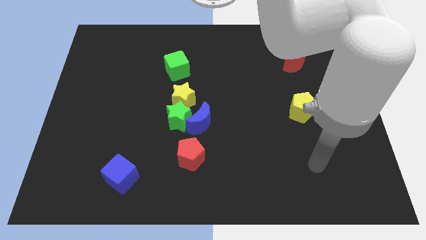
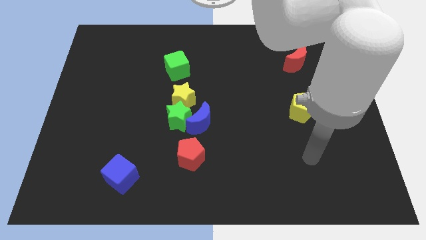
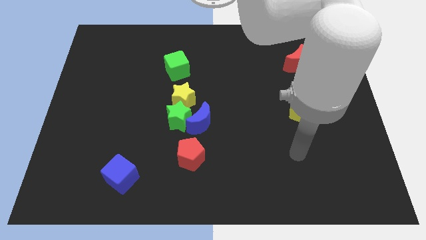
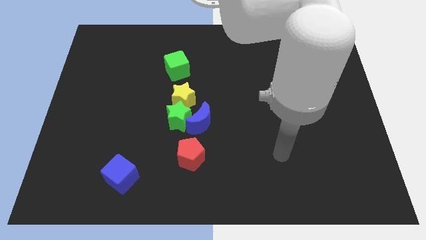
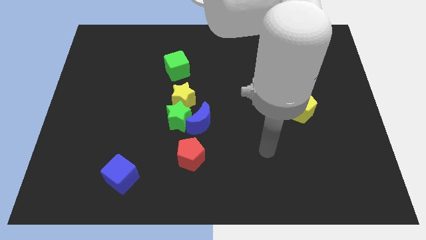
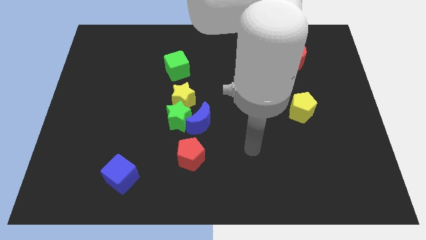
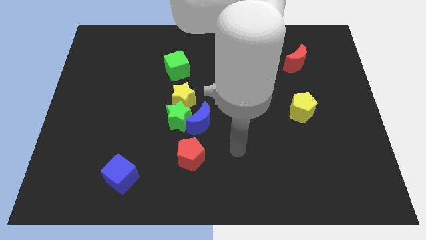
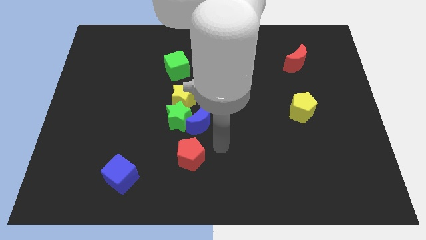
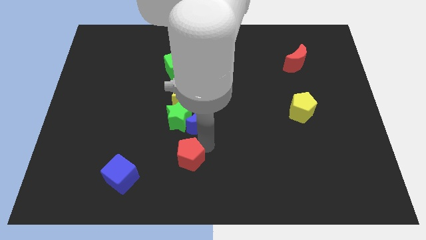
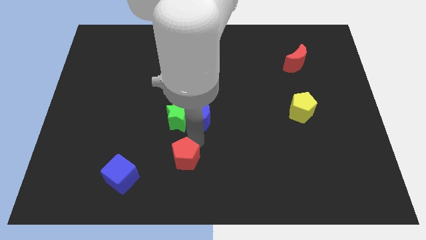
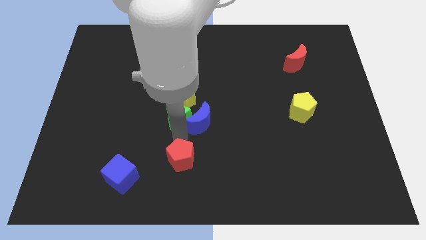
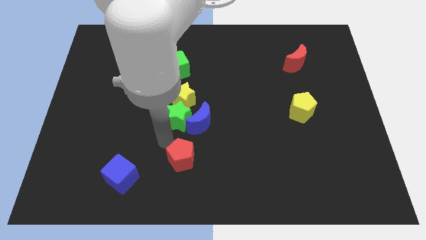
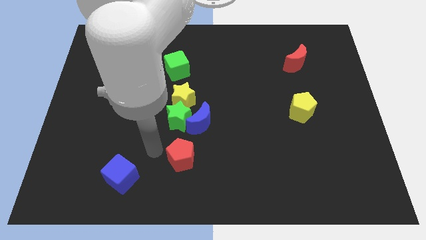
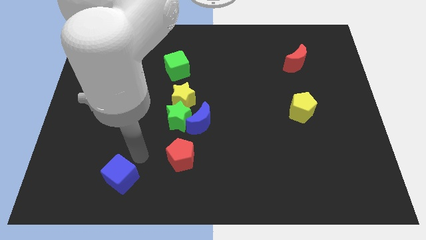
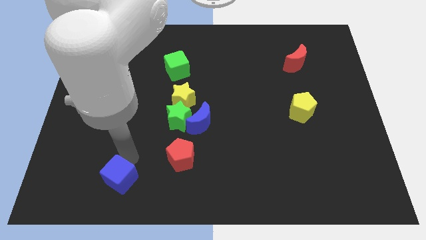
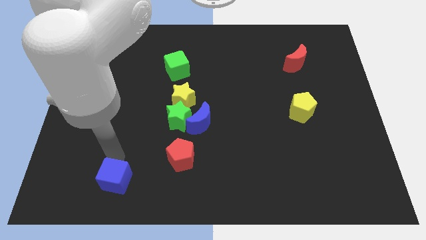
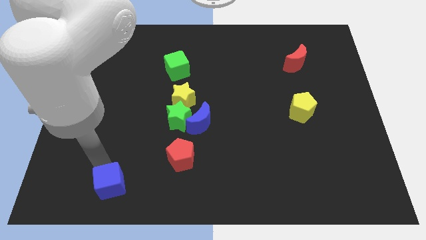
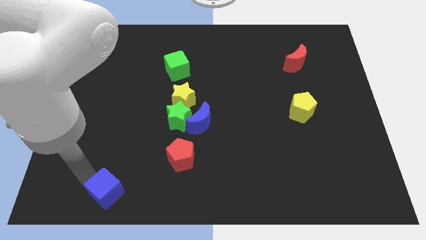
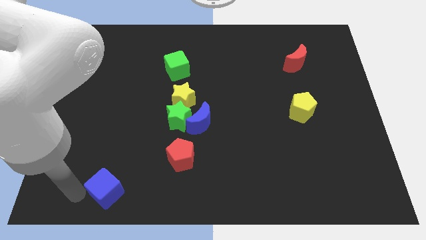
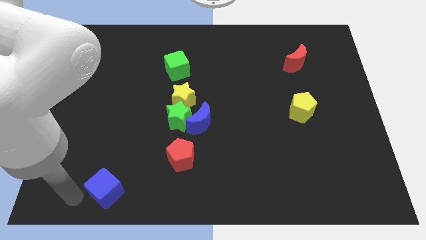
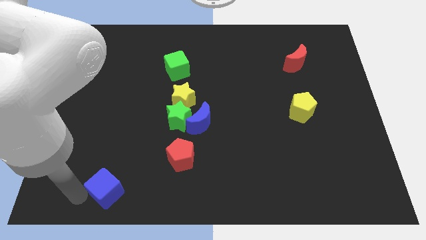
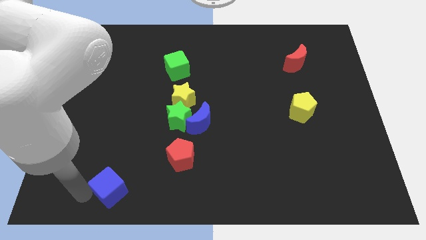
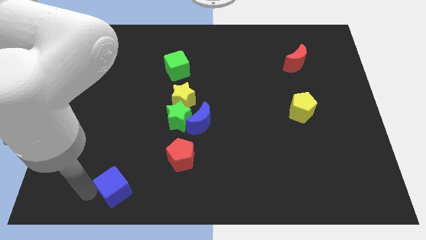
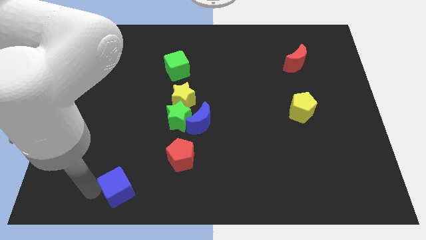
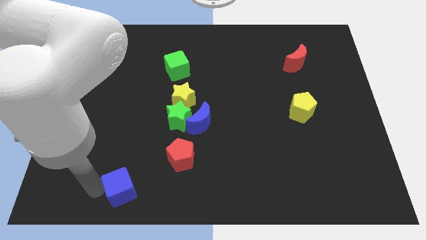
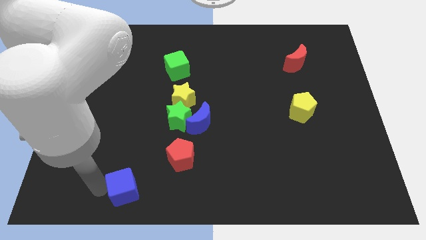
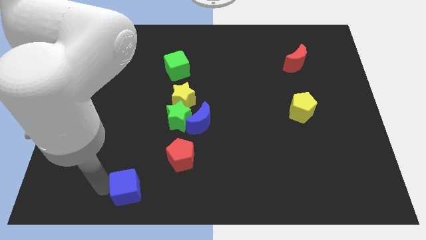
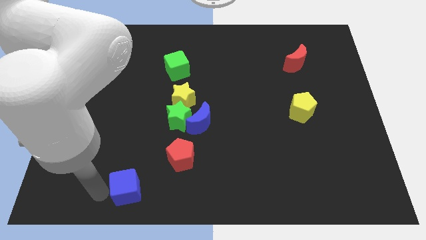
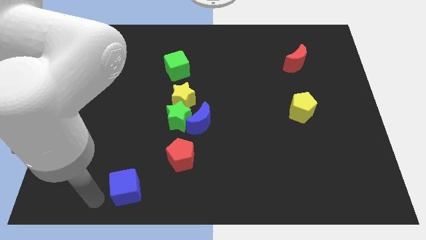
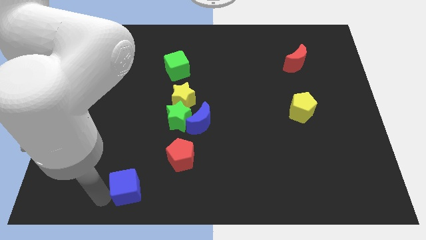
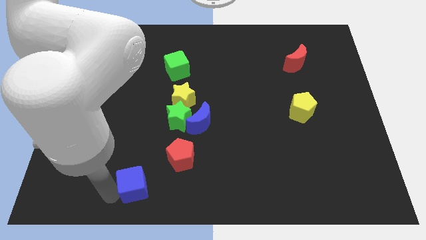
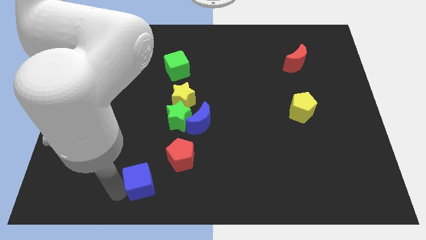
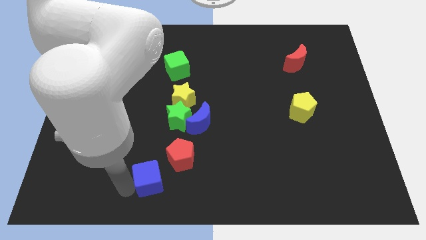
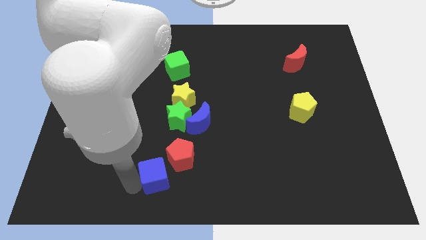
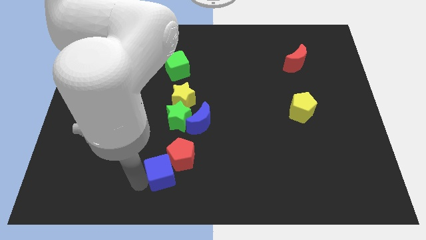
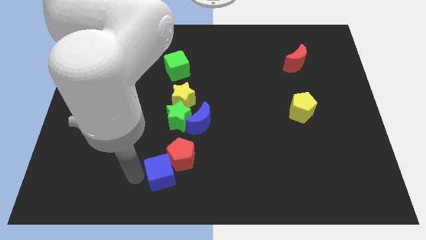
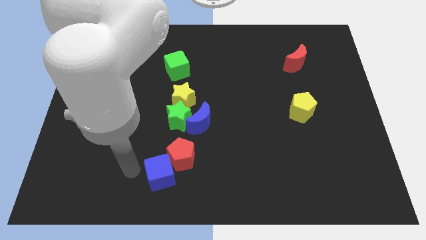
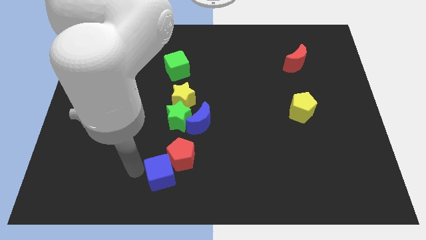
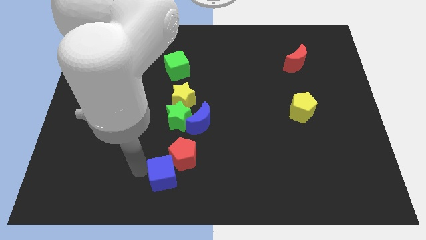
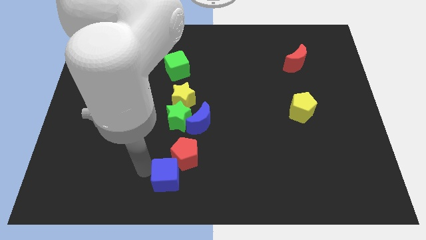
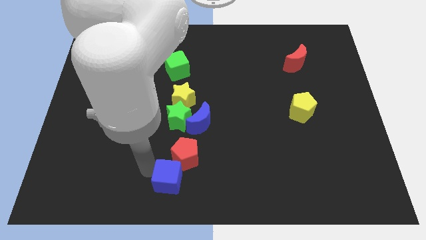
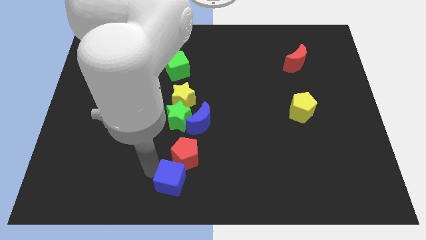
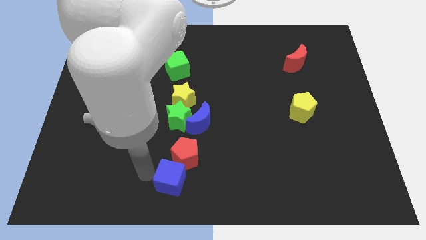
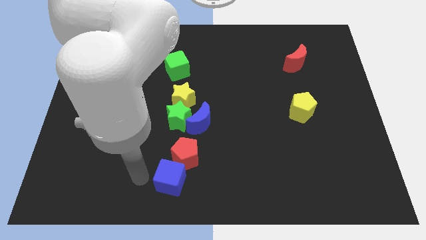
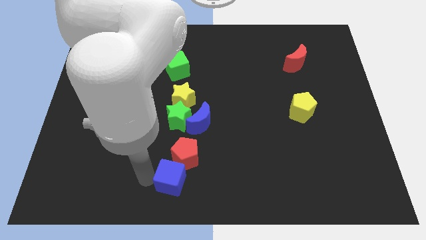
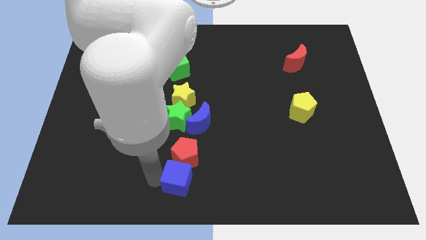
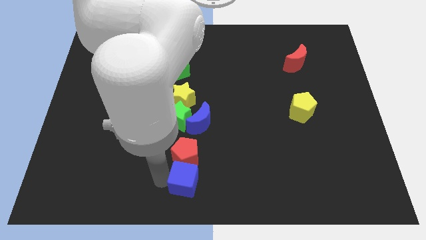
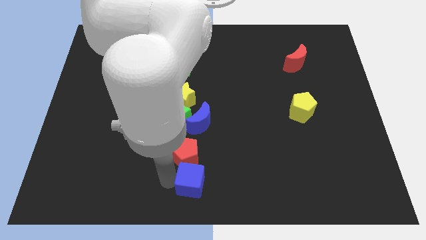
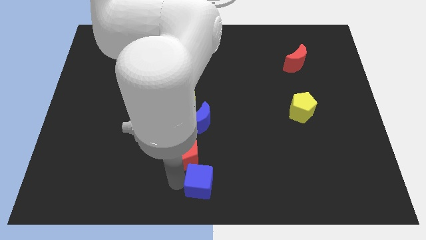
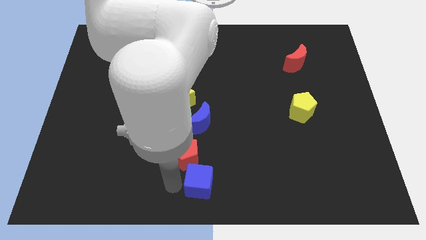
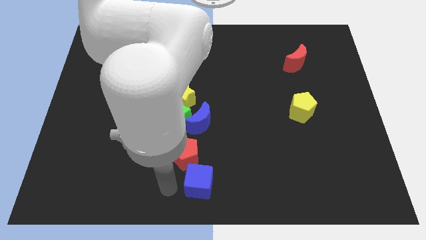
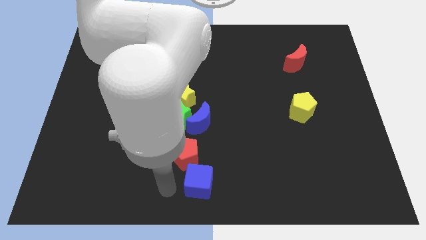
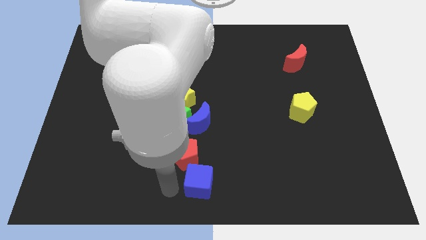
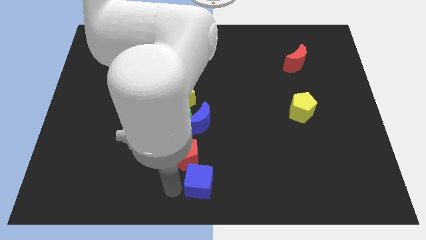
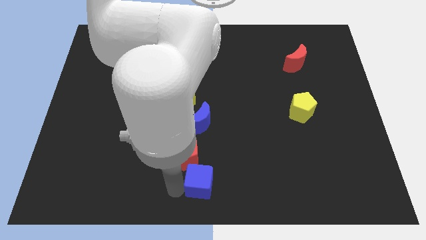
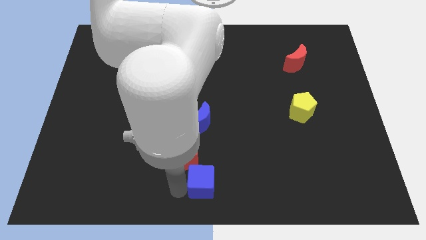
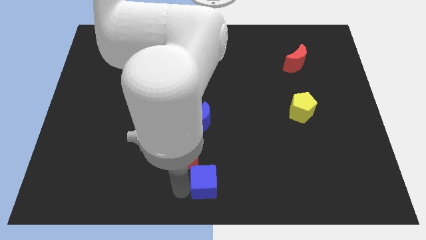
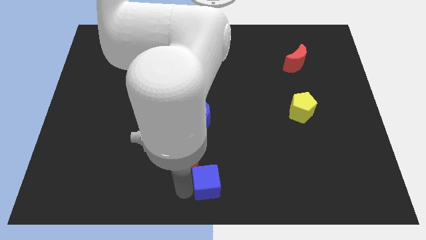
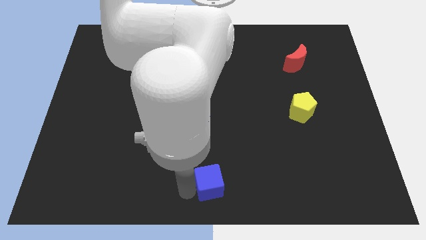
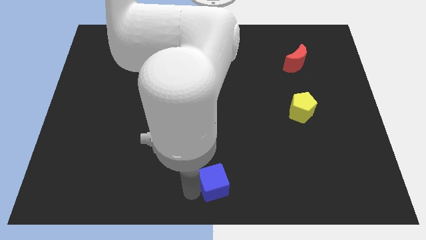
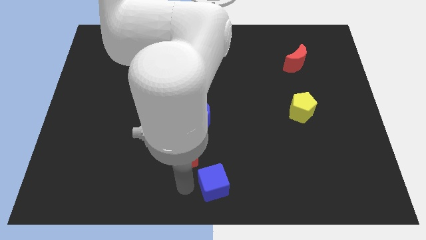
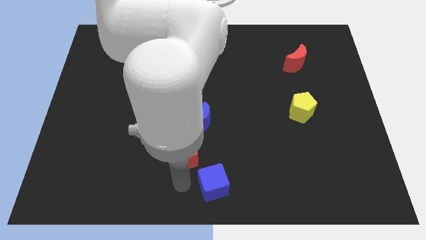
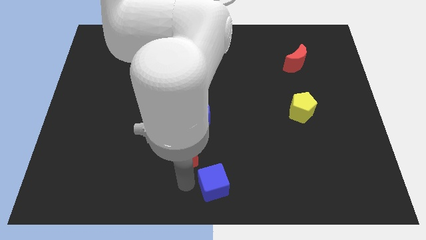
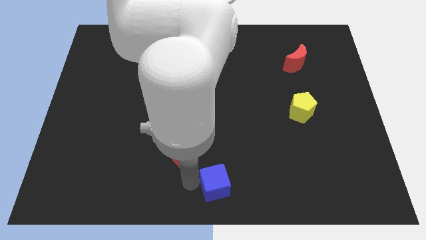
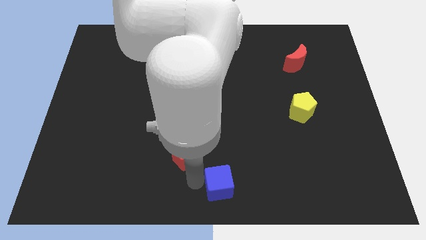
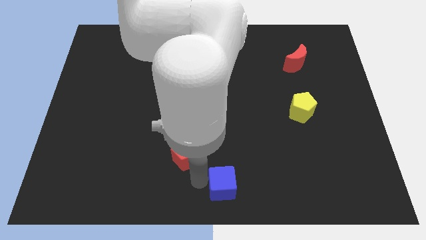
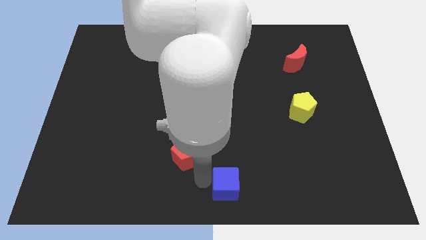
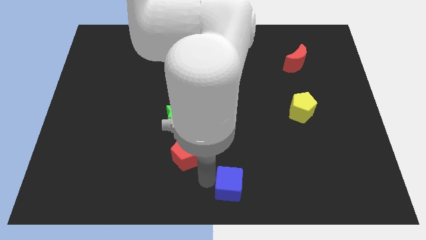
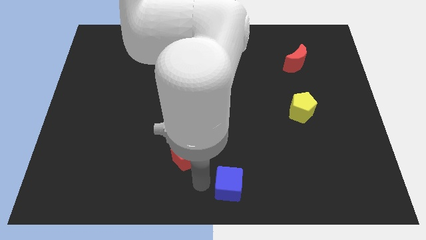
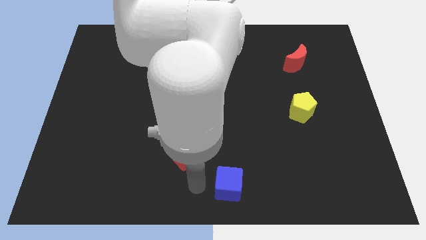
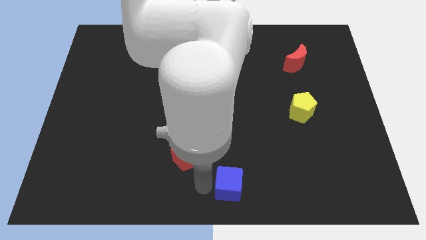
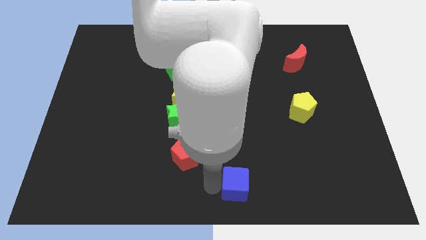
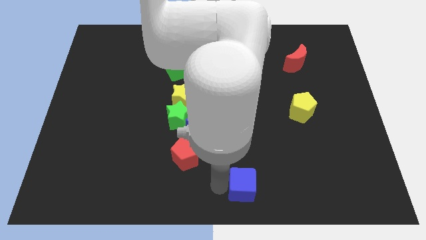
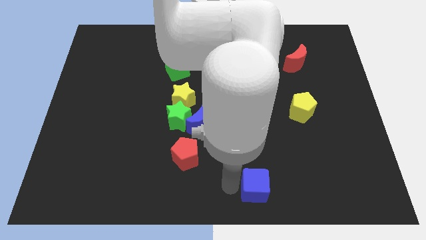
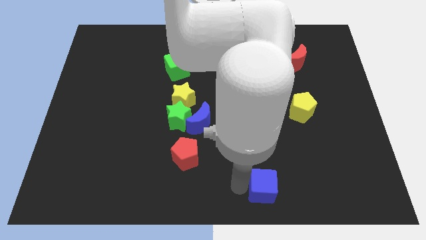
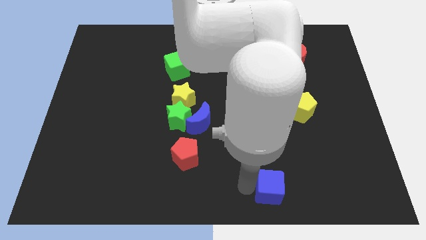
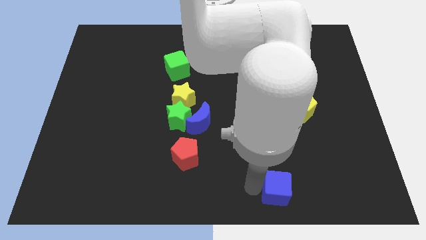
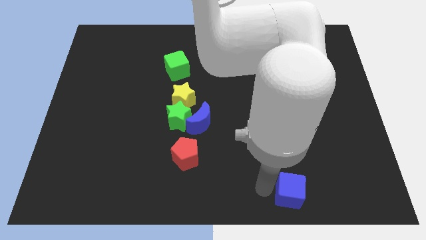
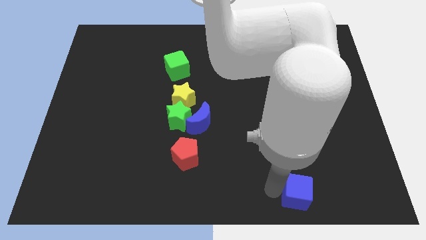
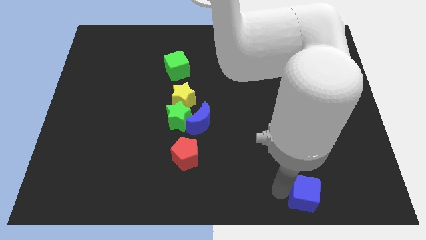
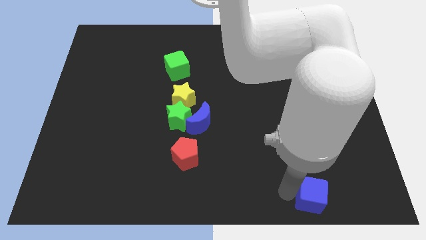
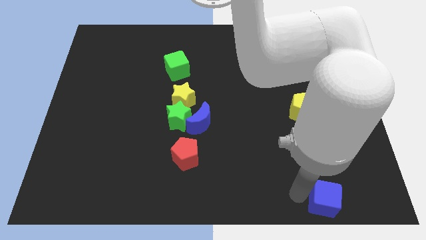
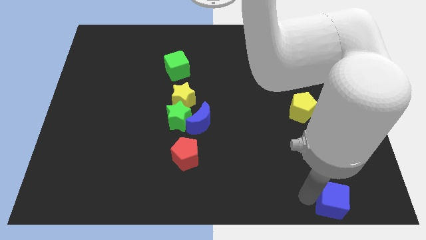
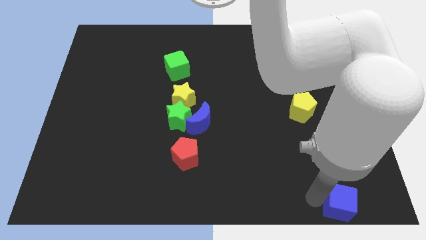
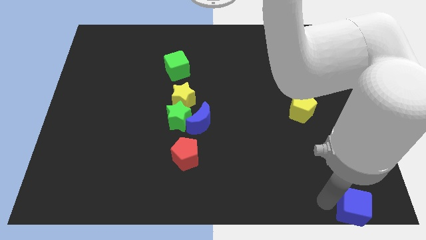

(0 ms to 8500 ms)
put the blue cube to the lower right corner
